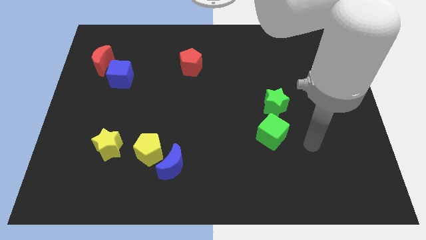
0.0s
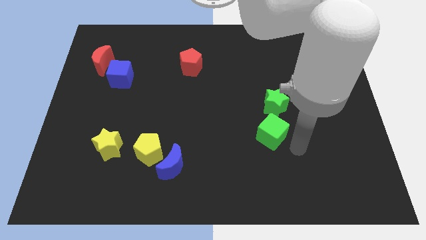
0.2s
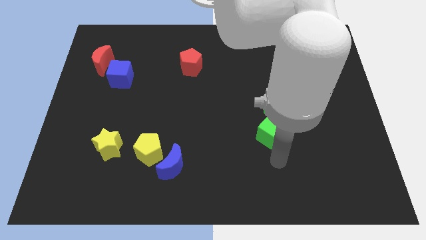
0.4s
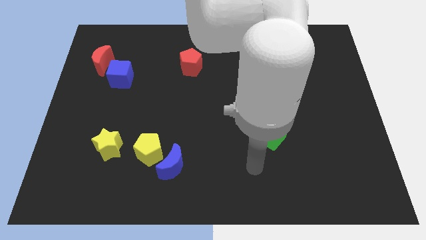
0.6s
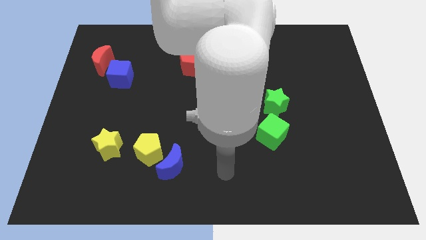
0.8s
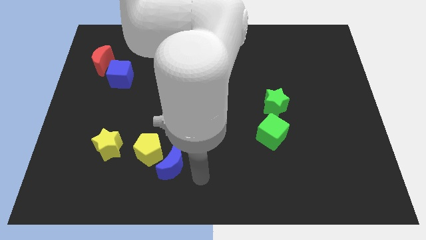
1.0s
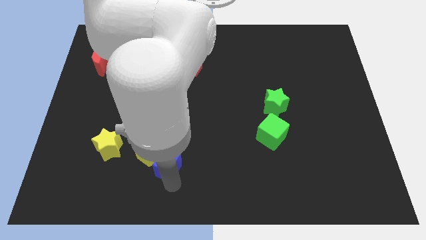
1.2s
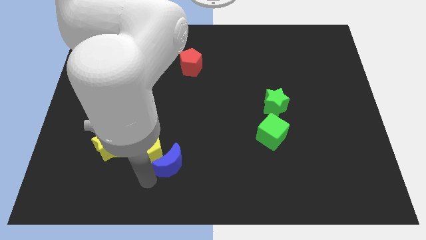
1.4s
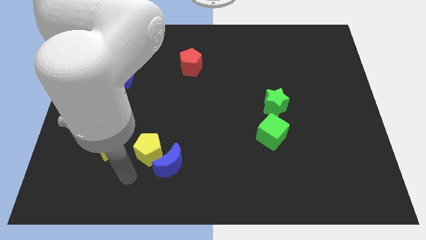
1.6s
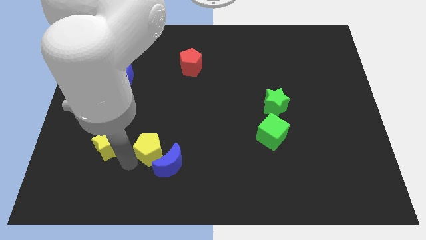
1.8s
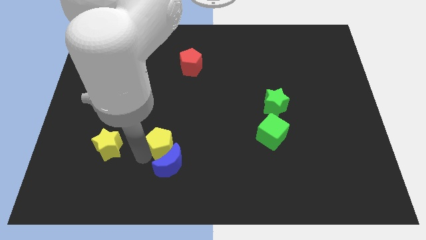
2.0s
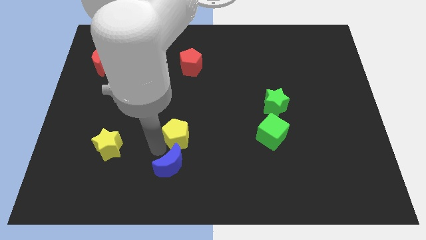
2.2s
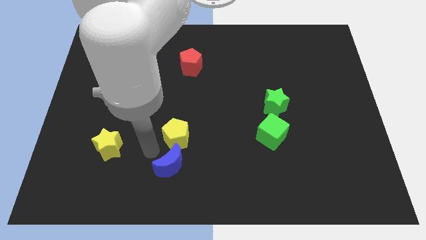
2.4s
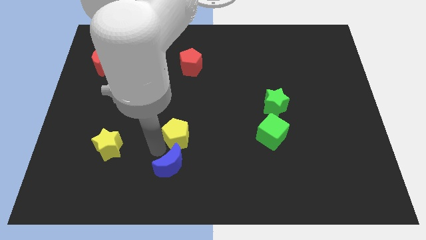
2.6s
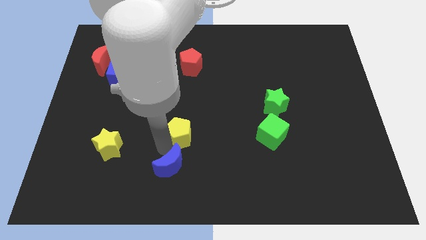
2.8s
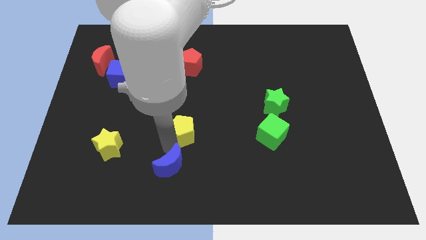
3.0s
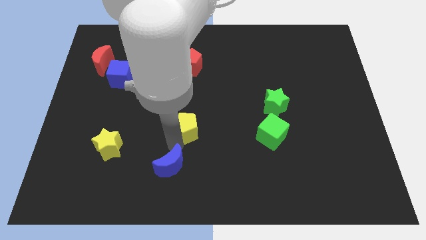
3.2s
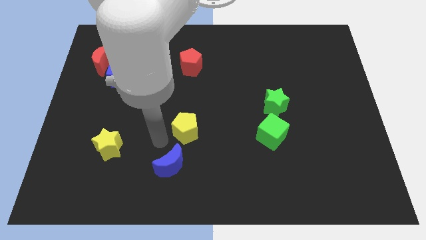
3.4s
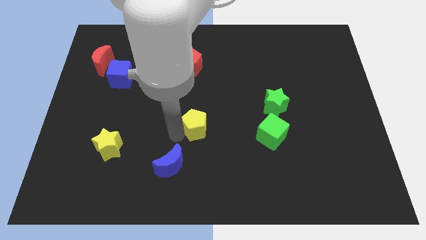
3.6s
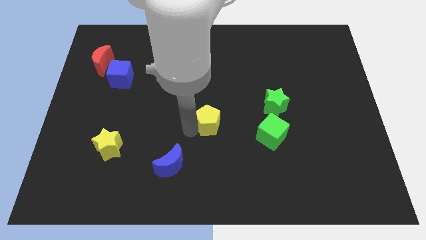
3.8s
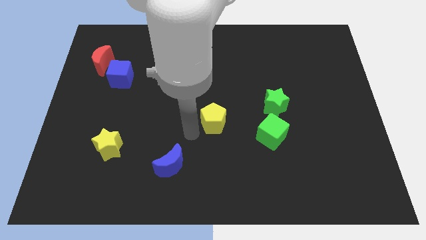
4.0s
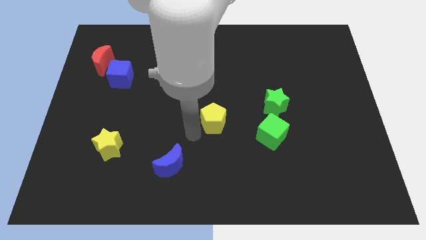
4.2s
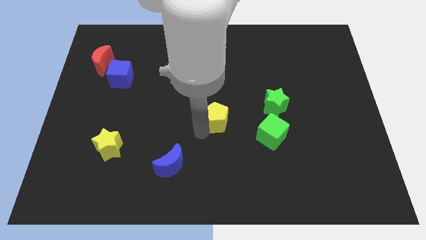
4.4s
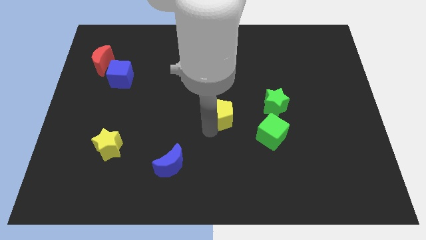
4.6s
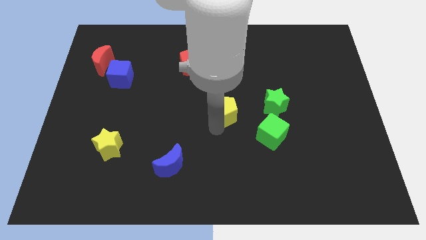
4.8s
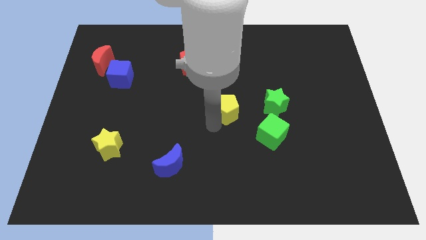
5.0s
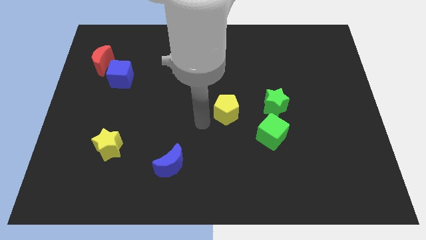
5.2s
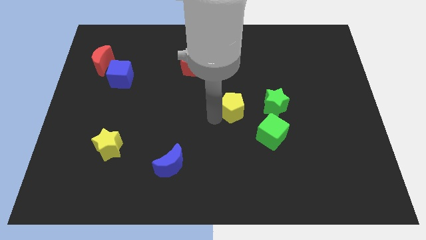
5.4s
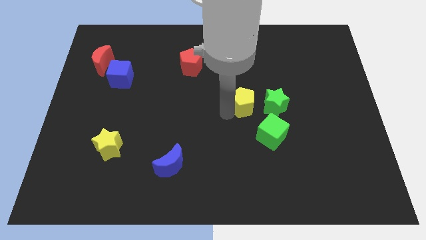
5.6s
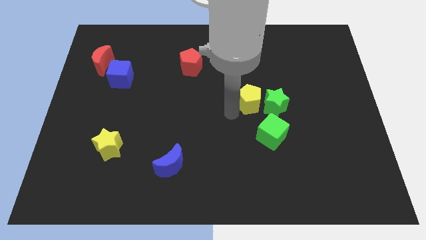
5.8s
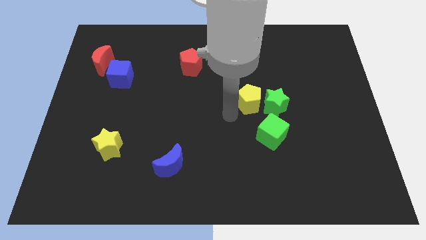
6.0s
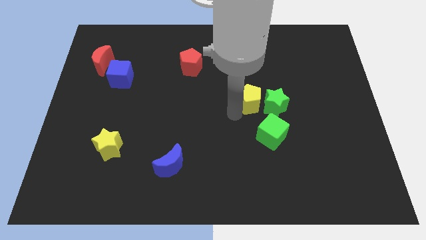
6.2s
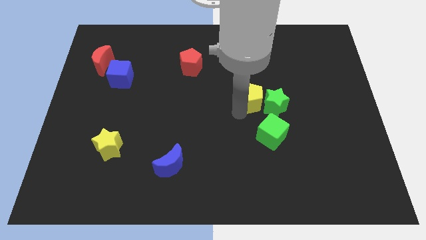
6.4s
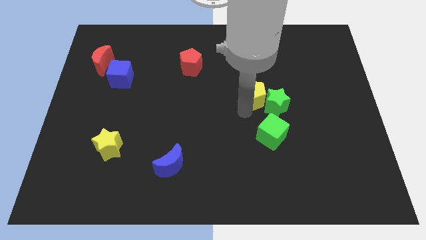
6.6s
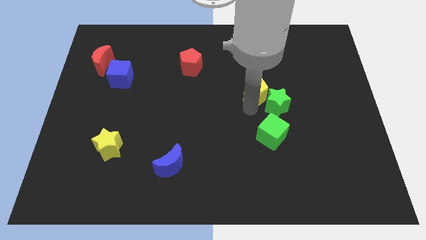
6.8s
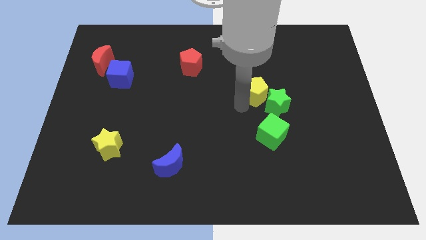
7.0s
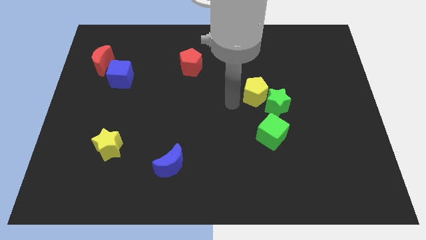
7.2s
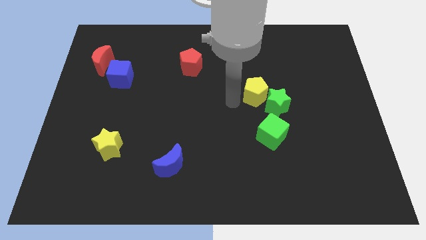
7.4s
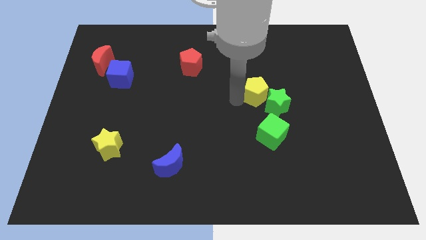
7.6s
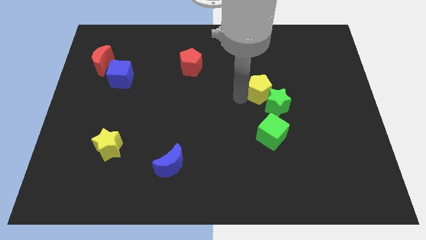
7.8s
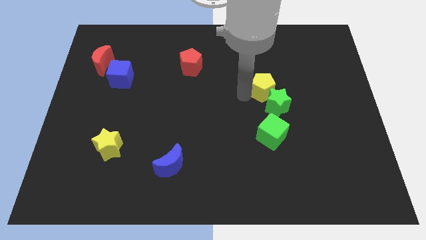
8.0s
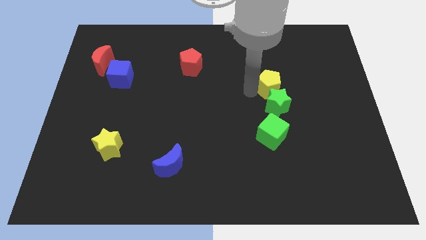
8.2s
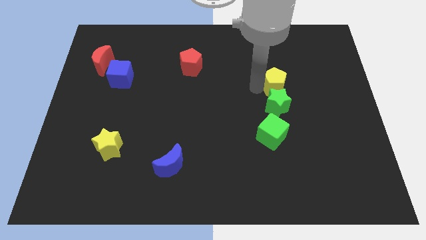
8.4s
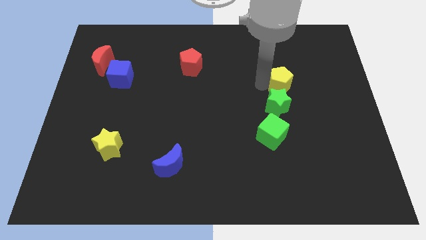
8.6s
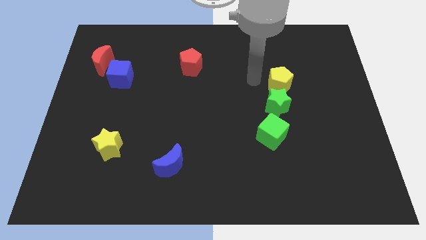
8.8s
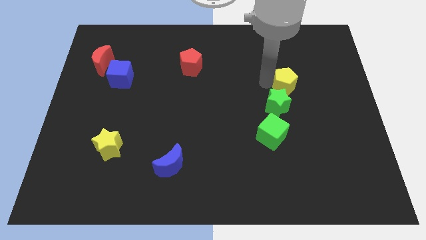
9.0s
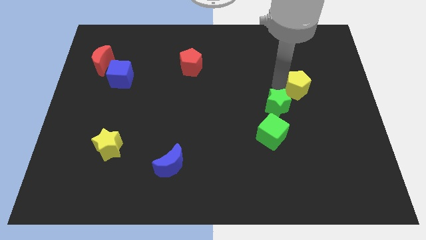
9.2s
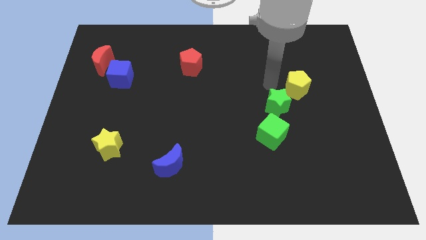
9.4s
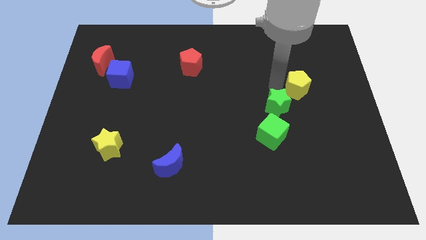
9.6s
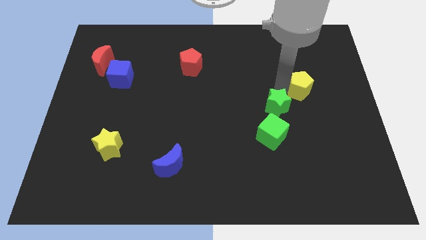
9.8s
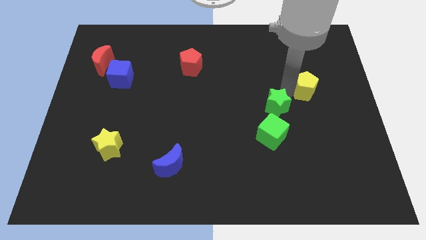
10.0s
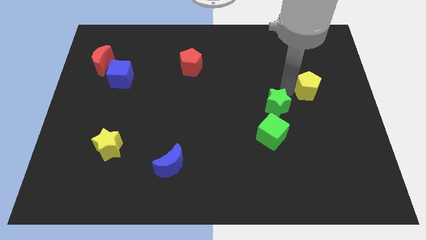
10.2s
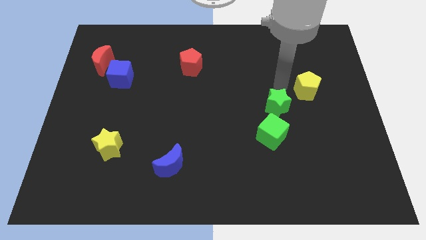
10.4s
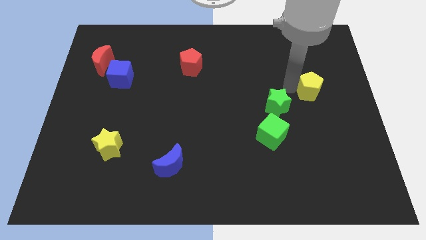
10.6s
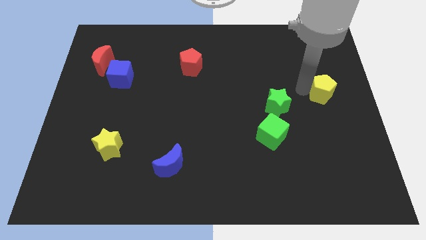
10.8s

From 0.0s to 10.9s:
slide the yellow pentagon to the right side

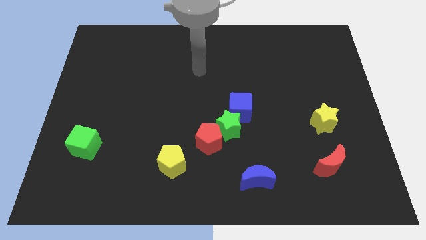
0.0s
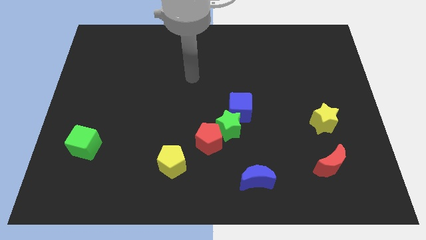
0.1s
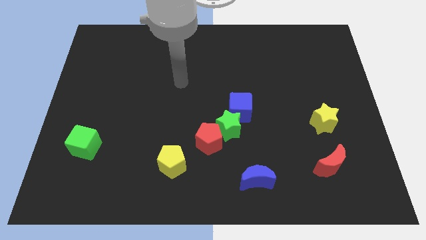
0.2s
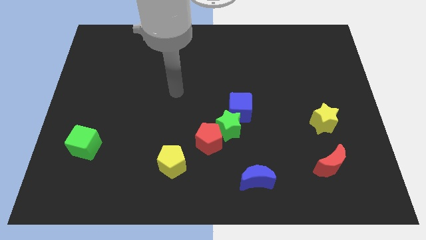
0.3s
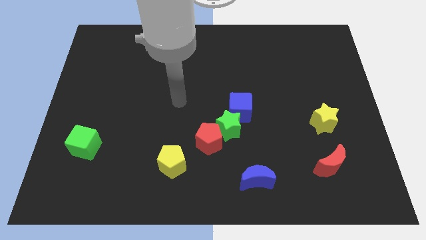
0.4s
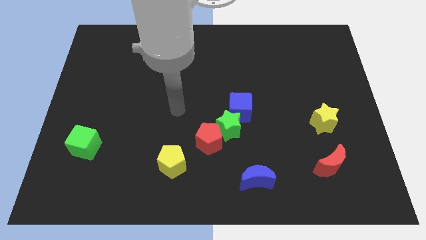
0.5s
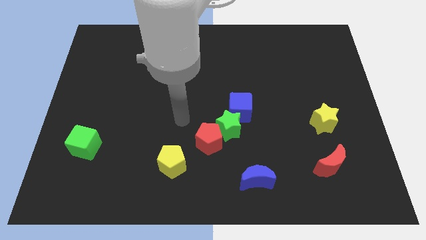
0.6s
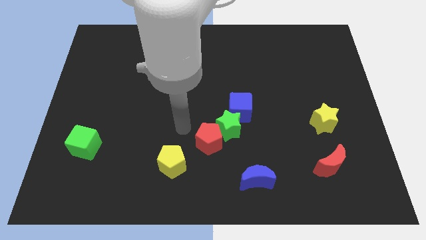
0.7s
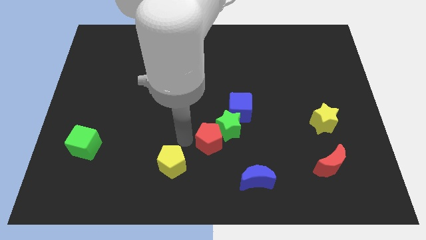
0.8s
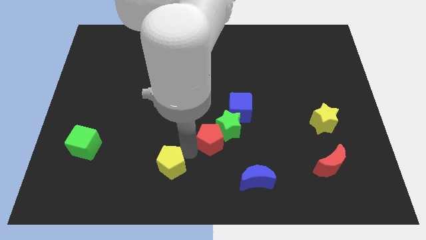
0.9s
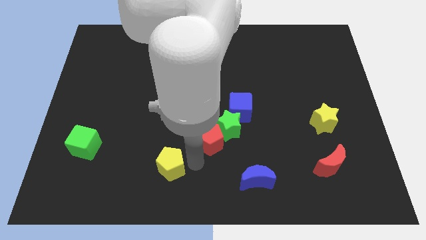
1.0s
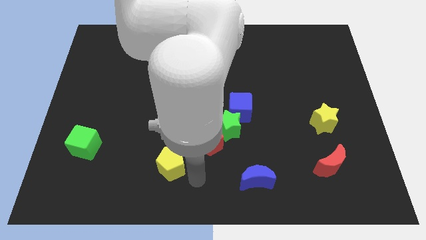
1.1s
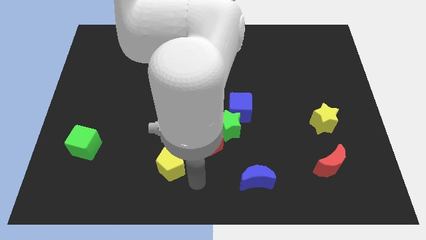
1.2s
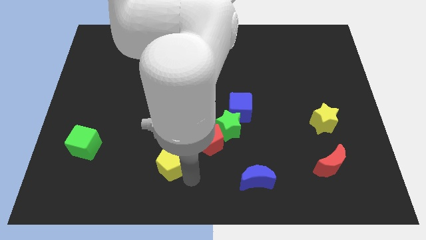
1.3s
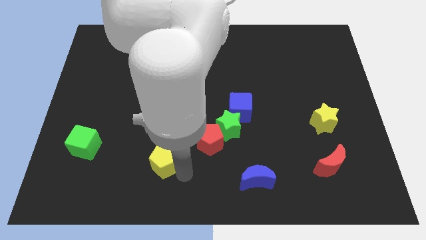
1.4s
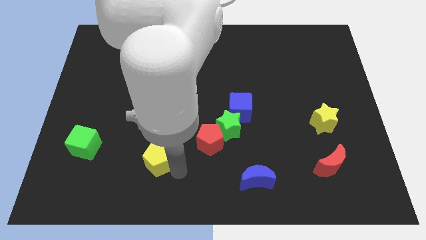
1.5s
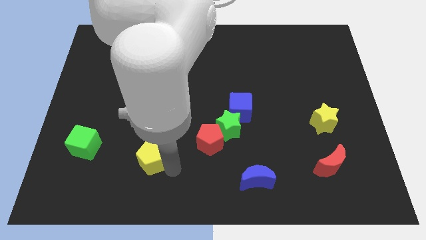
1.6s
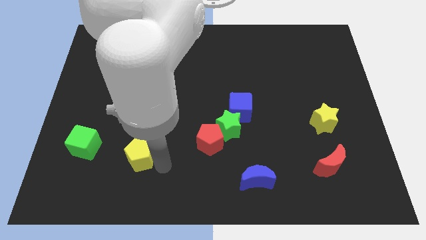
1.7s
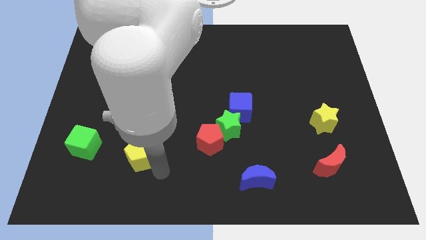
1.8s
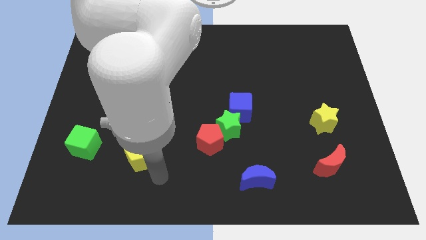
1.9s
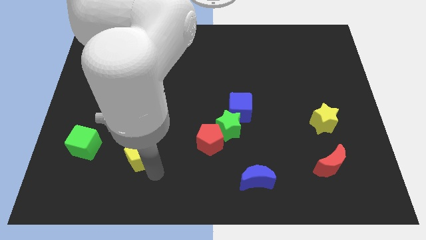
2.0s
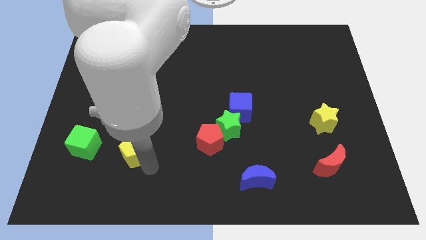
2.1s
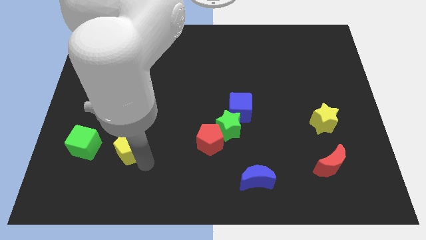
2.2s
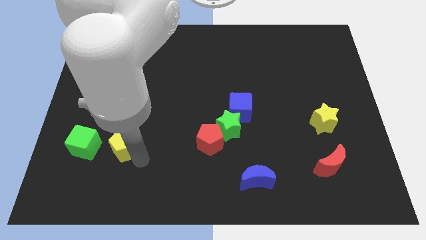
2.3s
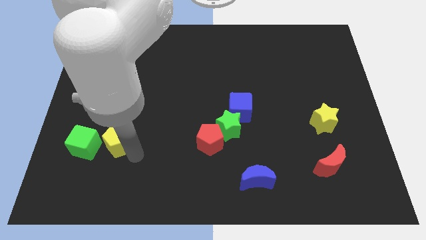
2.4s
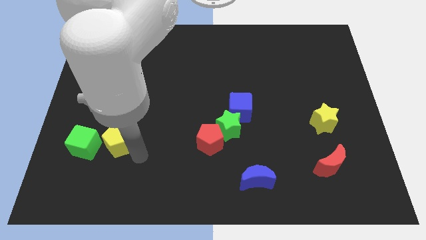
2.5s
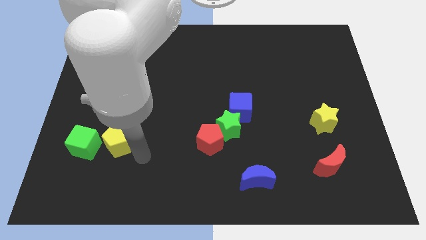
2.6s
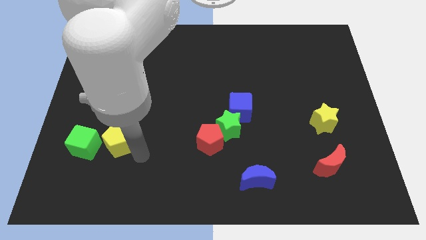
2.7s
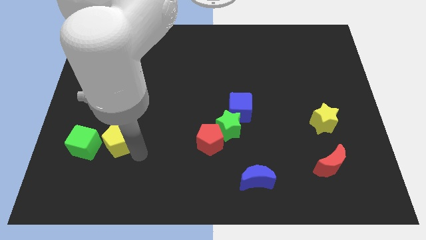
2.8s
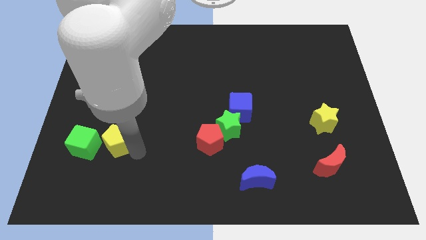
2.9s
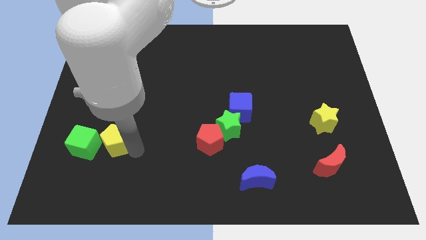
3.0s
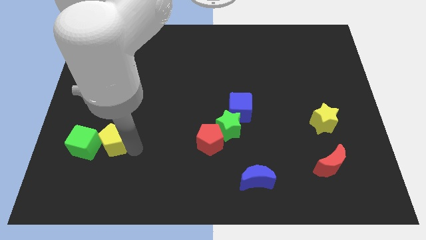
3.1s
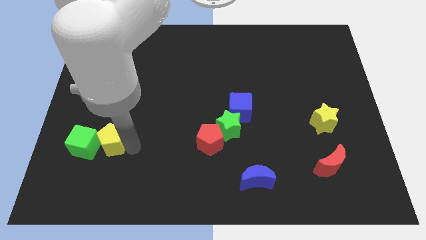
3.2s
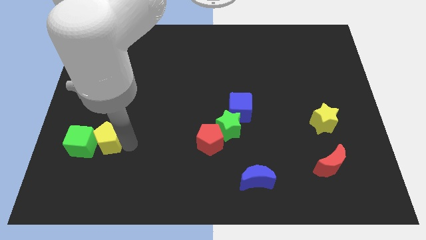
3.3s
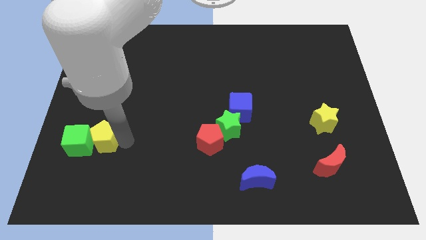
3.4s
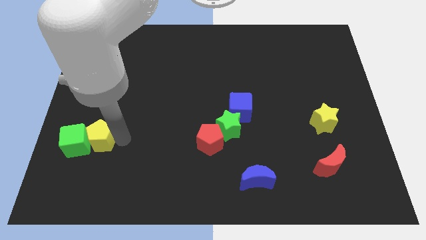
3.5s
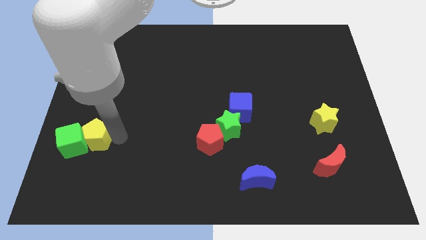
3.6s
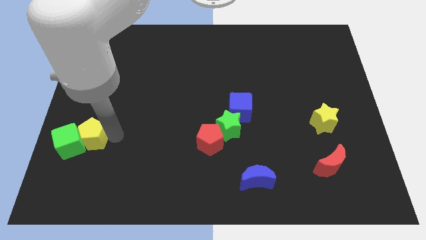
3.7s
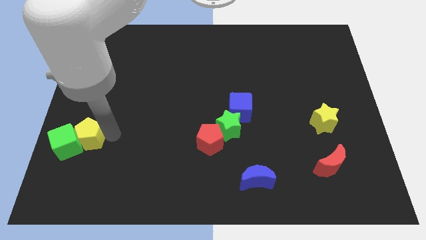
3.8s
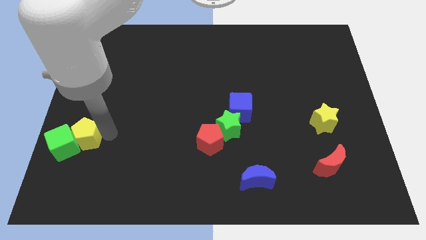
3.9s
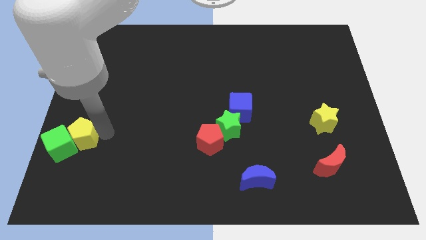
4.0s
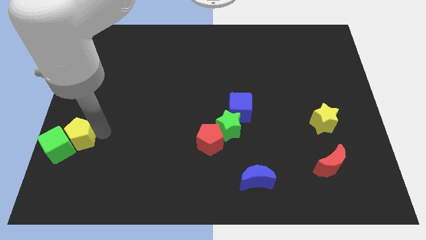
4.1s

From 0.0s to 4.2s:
put the yellow pentagon to the center left
